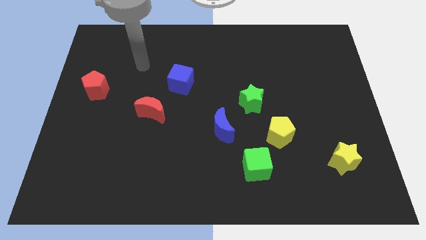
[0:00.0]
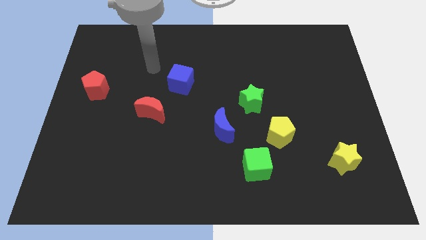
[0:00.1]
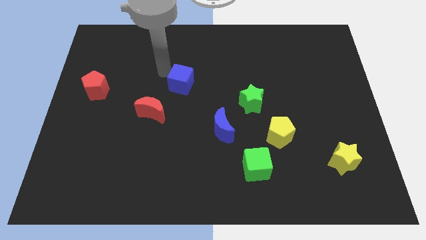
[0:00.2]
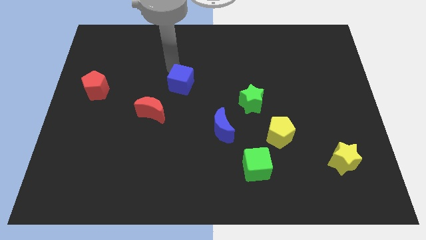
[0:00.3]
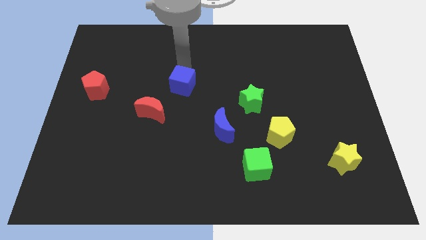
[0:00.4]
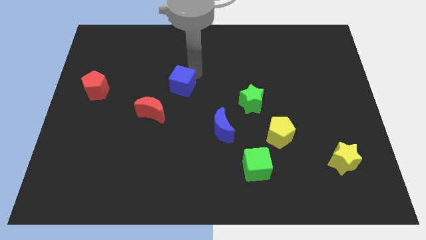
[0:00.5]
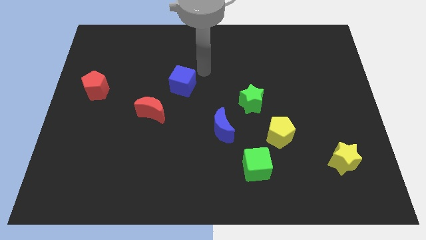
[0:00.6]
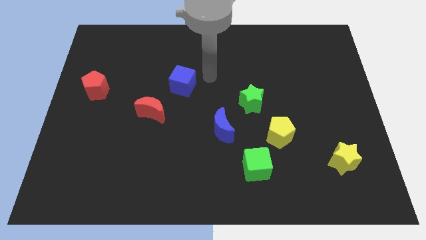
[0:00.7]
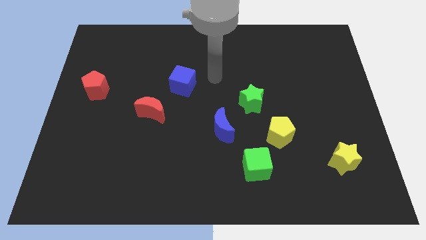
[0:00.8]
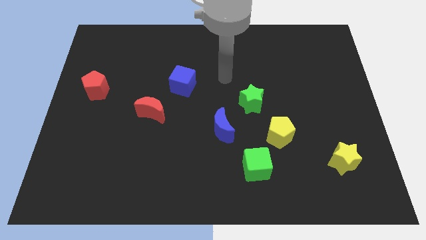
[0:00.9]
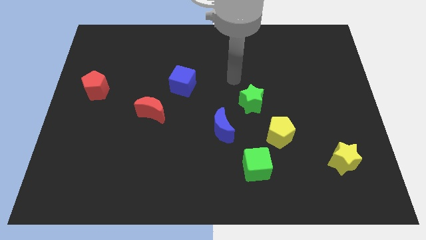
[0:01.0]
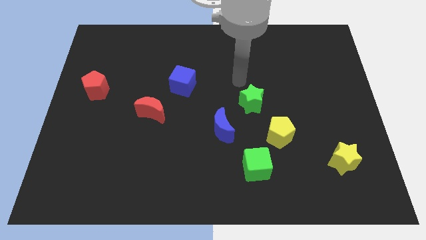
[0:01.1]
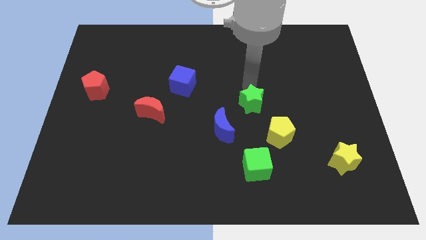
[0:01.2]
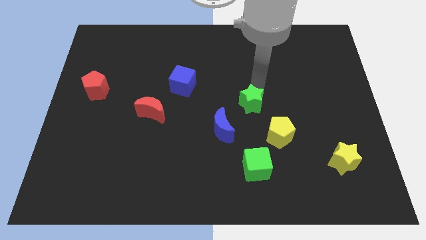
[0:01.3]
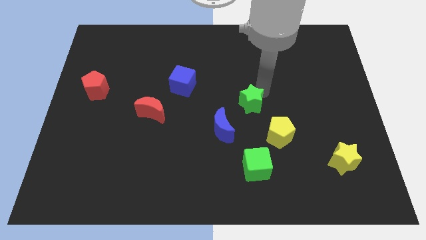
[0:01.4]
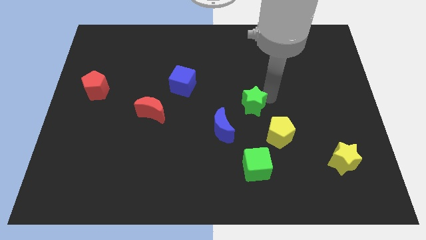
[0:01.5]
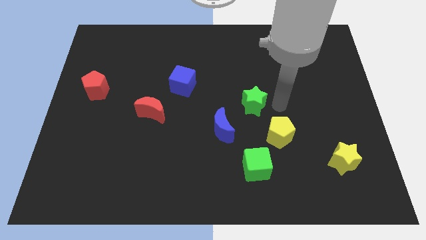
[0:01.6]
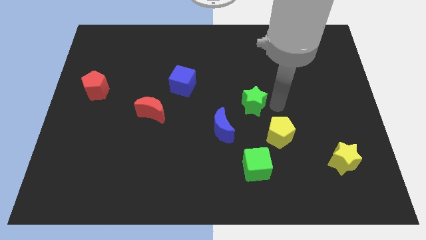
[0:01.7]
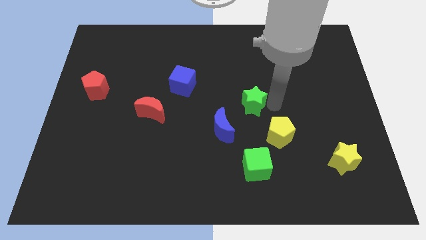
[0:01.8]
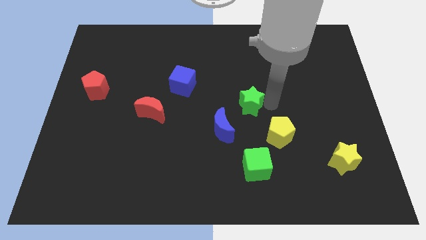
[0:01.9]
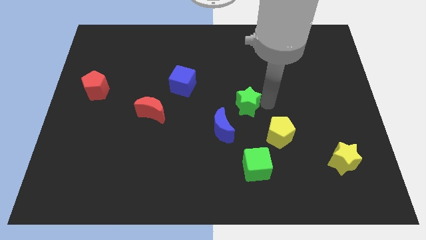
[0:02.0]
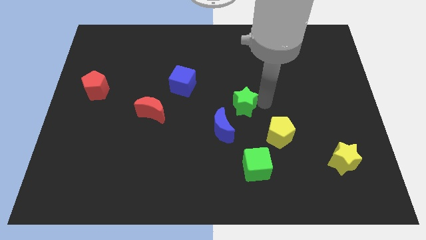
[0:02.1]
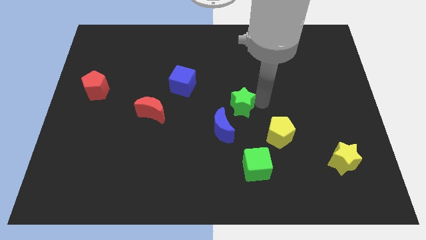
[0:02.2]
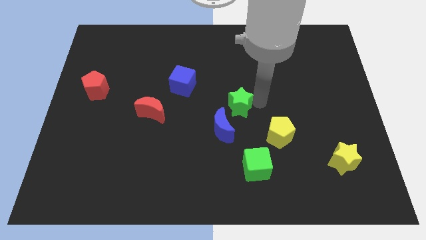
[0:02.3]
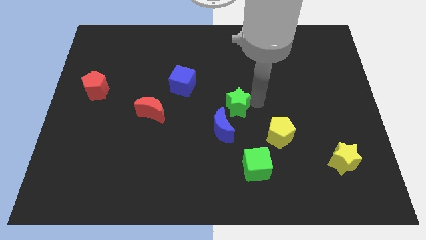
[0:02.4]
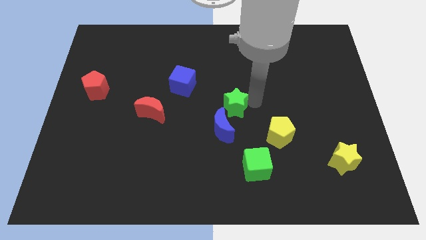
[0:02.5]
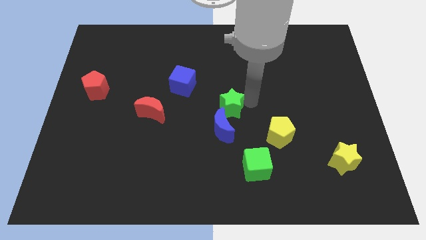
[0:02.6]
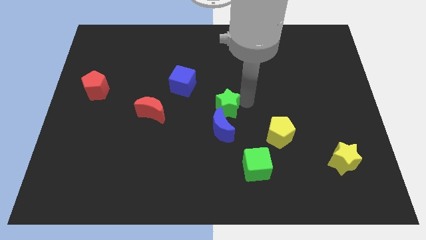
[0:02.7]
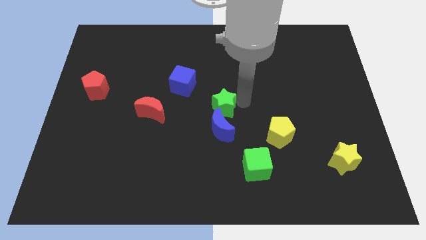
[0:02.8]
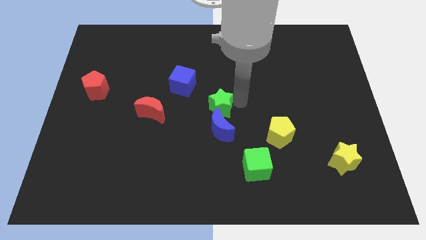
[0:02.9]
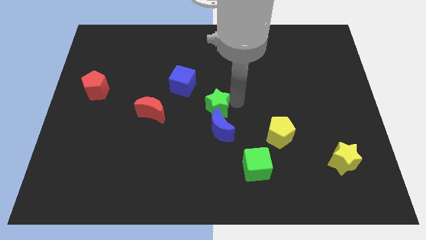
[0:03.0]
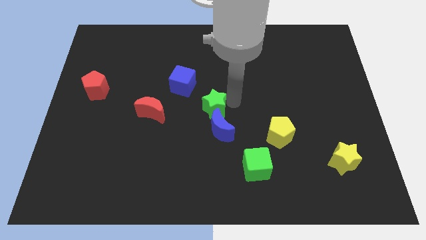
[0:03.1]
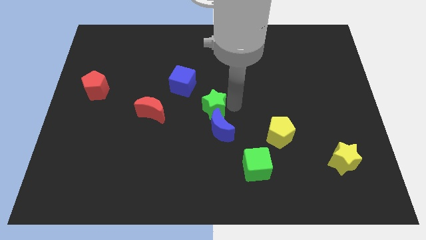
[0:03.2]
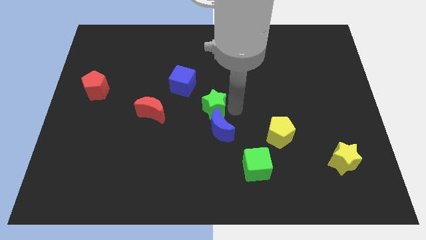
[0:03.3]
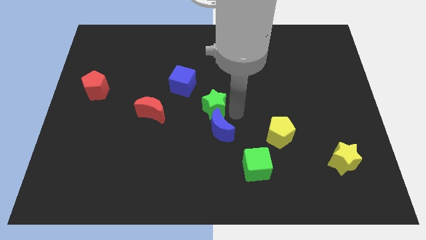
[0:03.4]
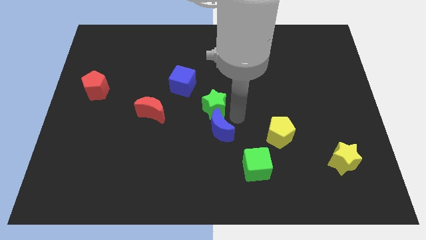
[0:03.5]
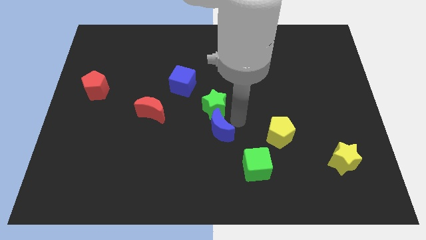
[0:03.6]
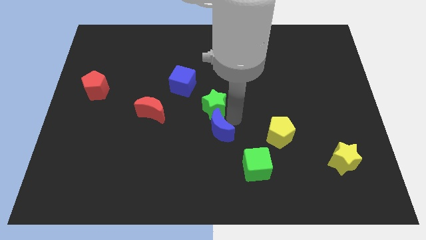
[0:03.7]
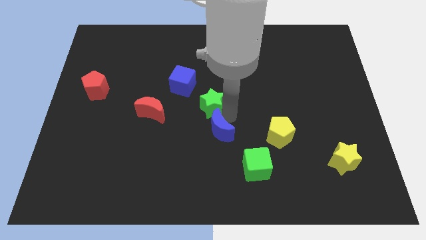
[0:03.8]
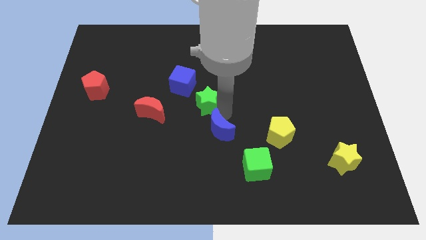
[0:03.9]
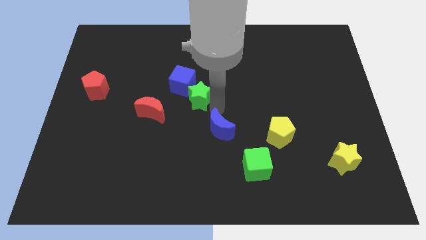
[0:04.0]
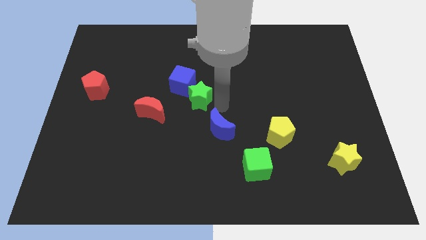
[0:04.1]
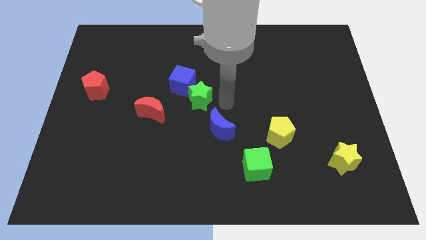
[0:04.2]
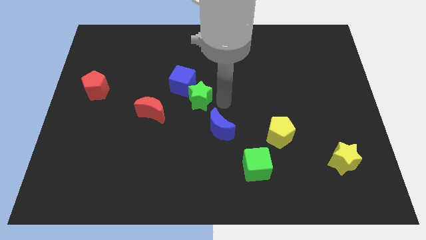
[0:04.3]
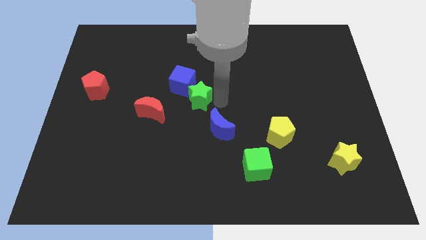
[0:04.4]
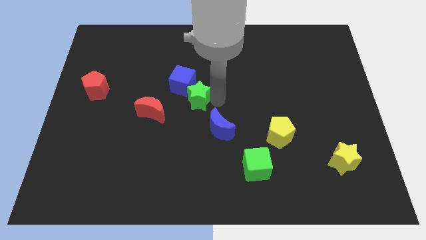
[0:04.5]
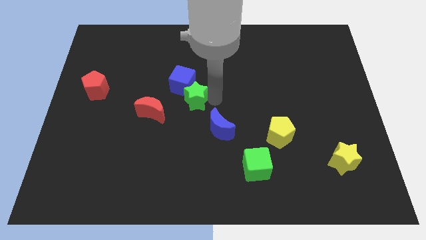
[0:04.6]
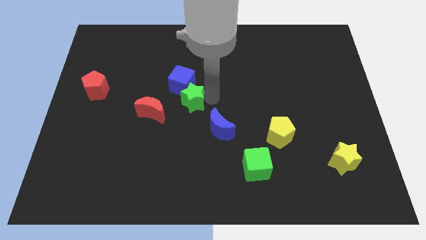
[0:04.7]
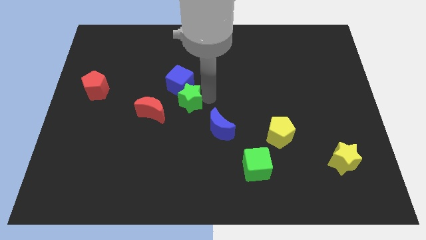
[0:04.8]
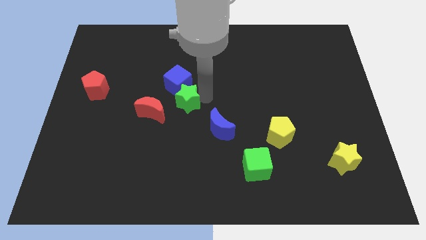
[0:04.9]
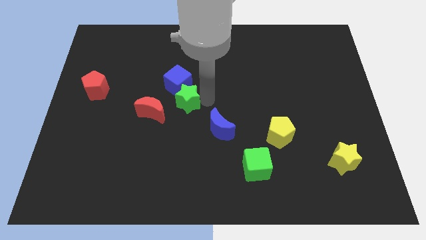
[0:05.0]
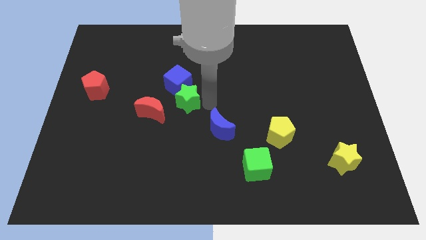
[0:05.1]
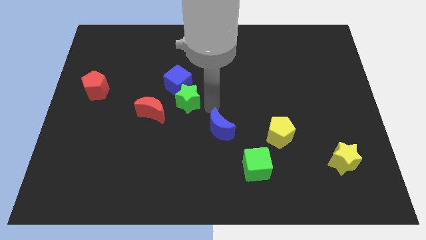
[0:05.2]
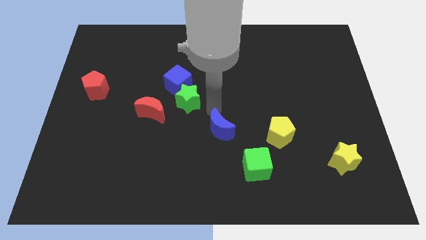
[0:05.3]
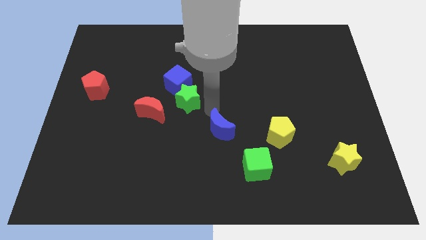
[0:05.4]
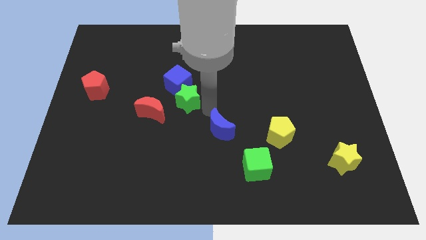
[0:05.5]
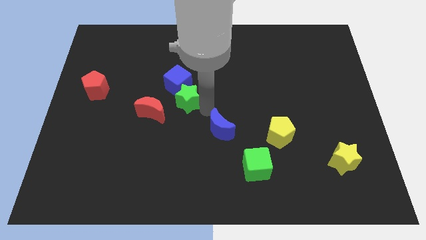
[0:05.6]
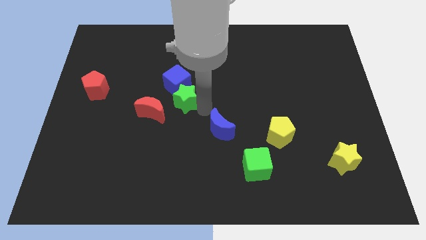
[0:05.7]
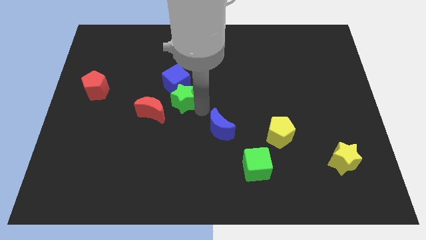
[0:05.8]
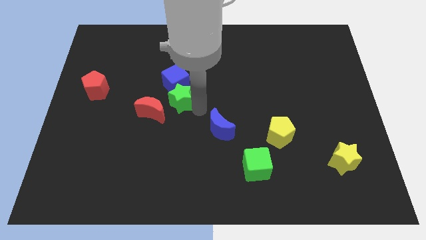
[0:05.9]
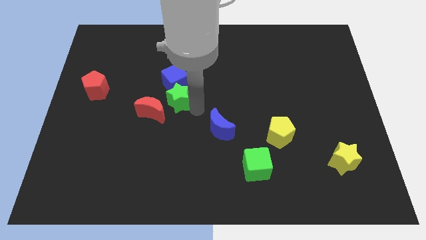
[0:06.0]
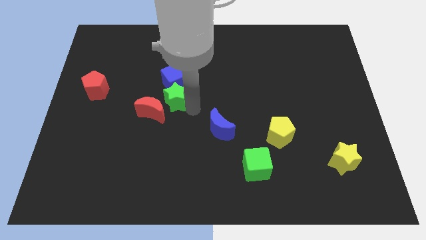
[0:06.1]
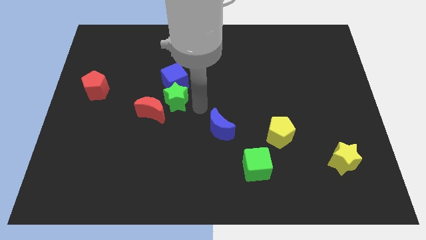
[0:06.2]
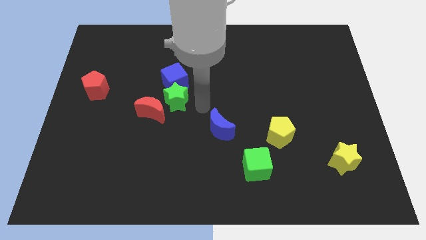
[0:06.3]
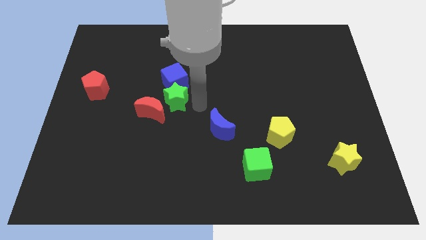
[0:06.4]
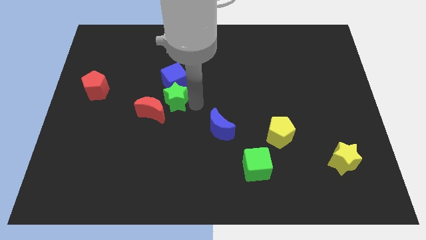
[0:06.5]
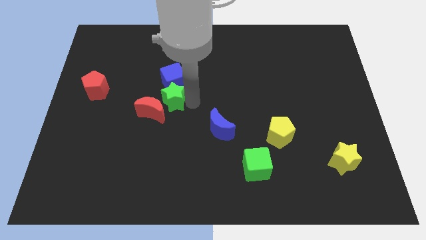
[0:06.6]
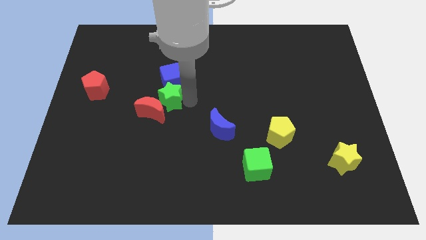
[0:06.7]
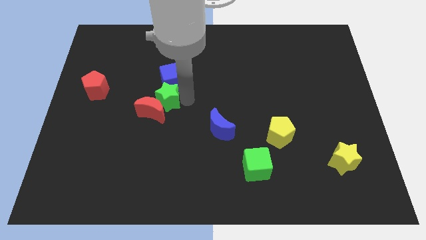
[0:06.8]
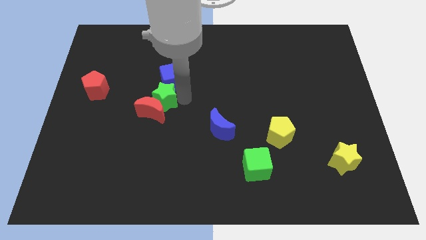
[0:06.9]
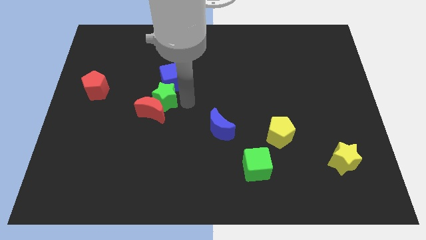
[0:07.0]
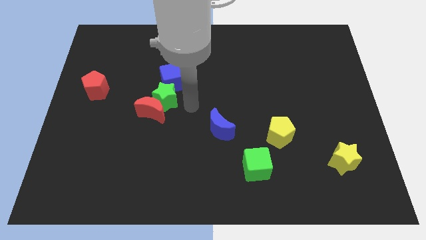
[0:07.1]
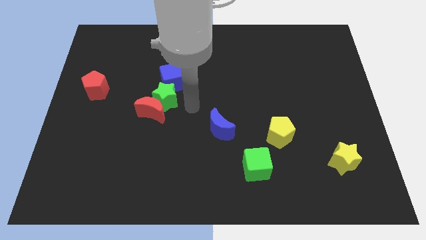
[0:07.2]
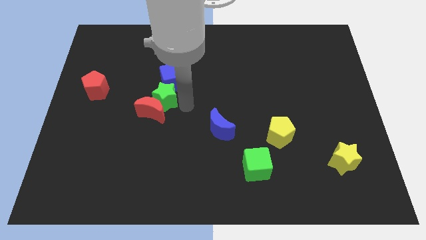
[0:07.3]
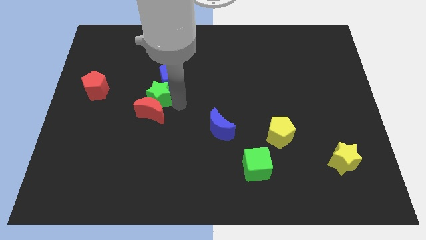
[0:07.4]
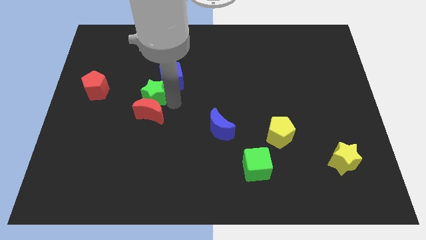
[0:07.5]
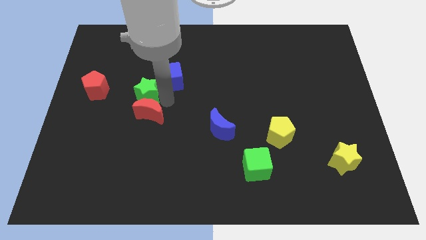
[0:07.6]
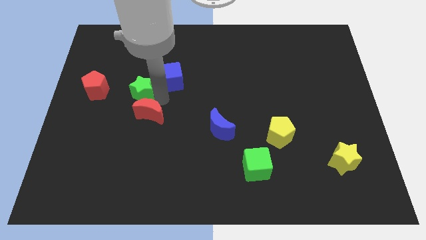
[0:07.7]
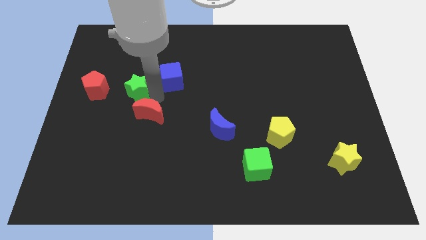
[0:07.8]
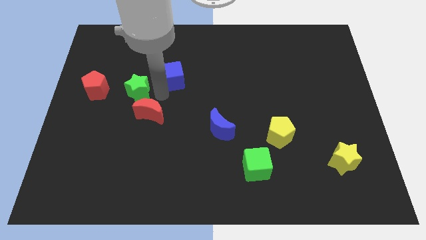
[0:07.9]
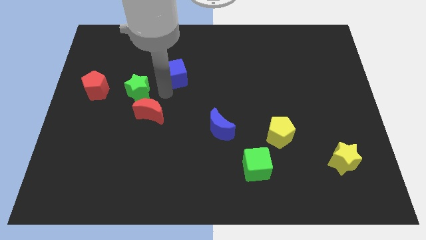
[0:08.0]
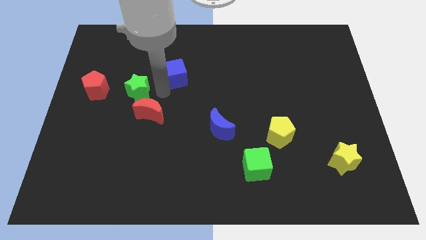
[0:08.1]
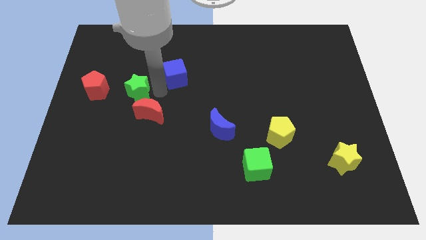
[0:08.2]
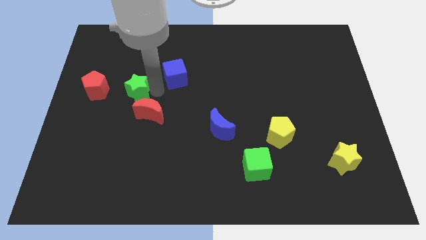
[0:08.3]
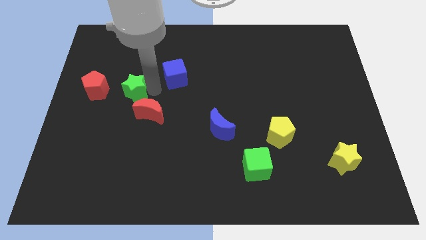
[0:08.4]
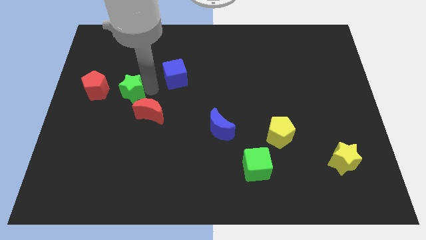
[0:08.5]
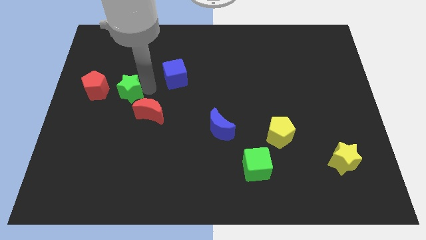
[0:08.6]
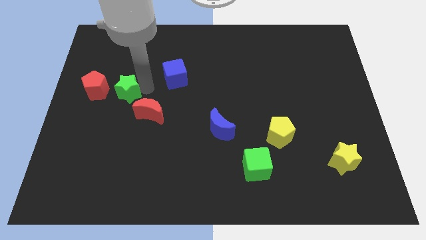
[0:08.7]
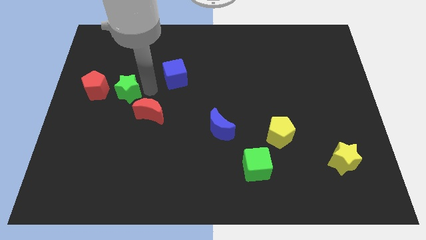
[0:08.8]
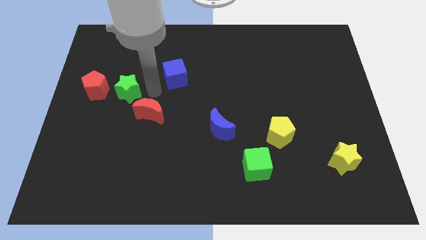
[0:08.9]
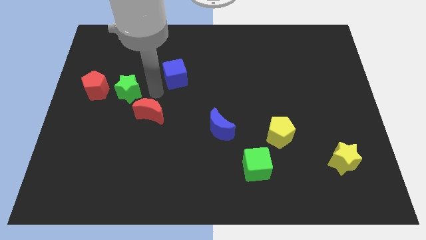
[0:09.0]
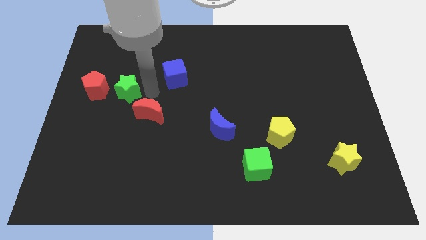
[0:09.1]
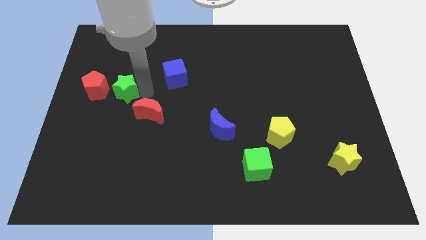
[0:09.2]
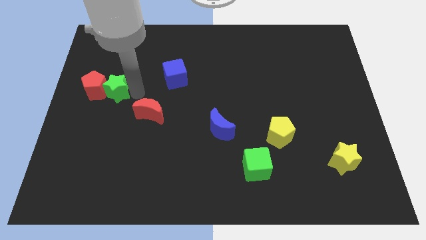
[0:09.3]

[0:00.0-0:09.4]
put the green star next to the red pentagon
